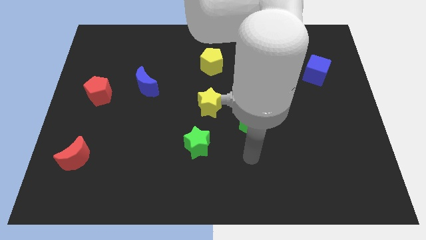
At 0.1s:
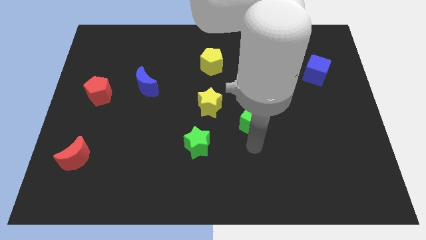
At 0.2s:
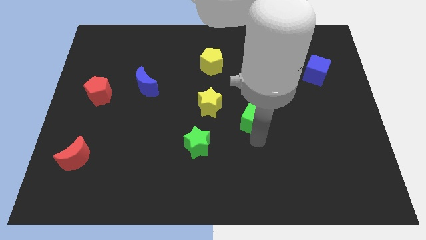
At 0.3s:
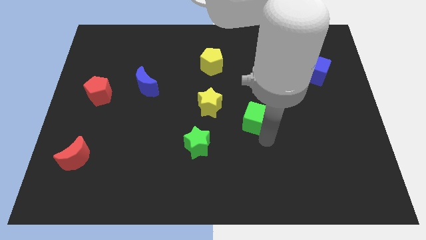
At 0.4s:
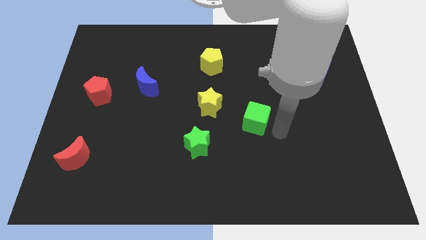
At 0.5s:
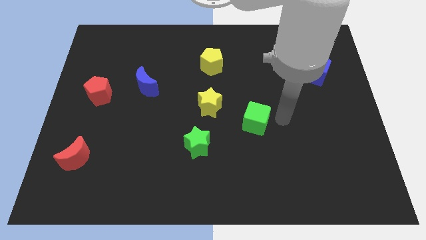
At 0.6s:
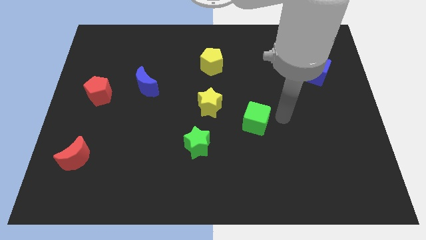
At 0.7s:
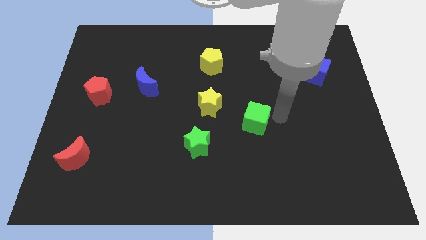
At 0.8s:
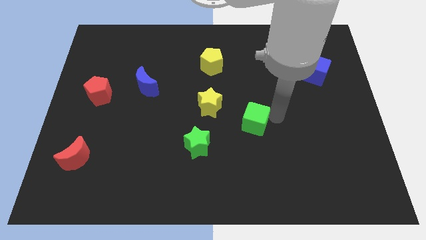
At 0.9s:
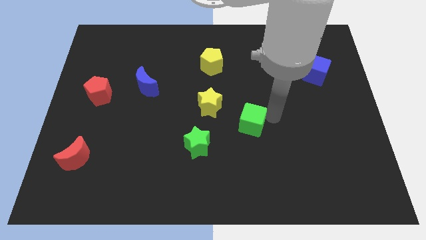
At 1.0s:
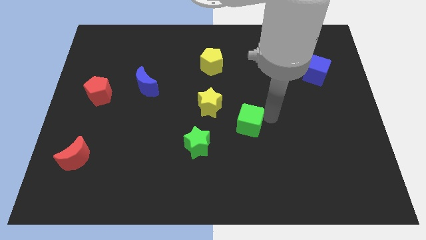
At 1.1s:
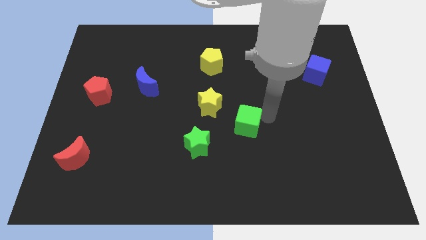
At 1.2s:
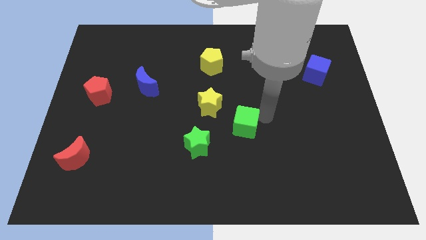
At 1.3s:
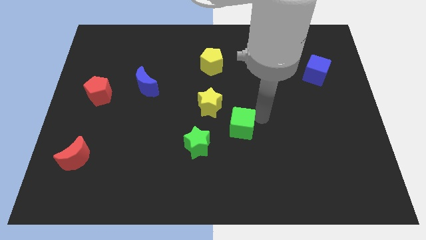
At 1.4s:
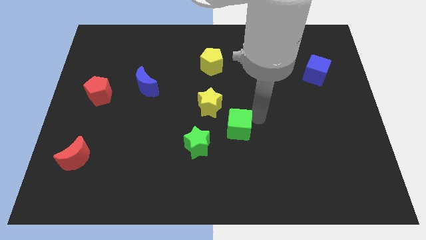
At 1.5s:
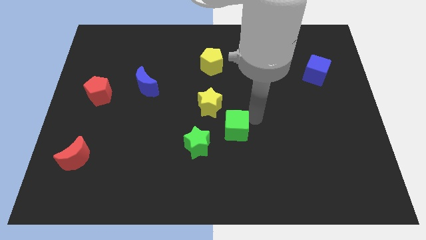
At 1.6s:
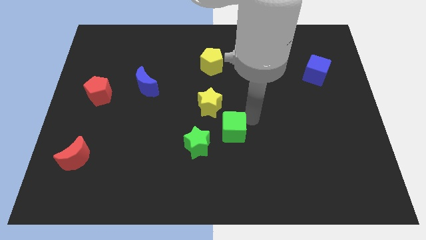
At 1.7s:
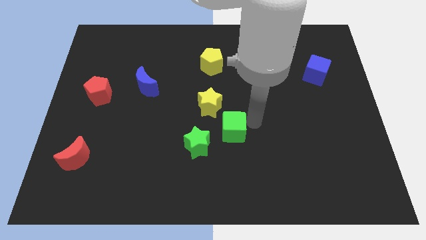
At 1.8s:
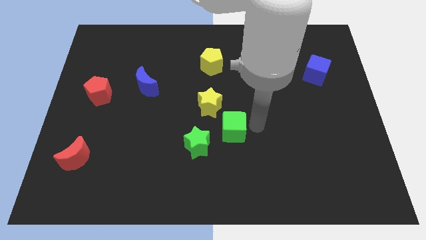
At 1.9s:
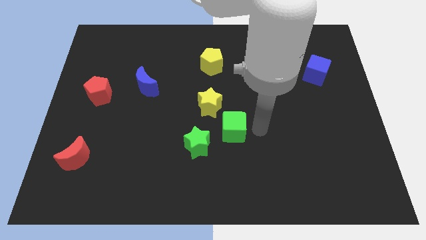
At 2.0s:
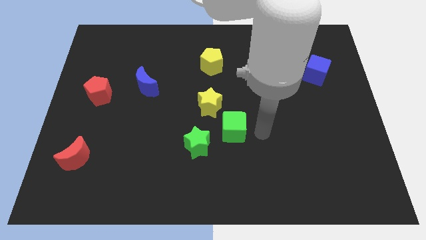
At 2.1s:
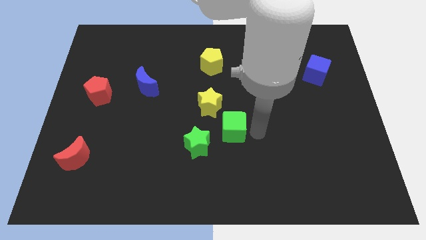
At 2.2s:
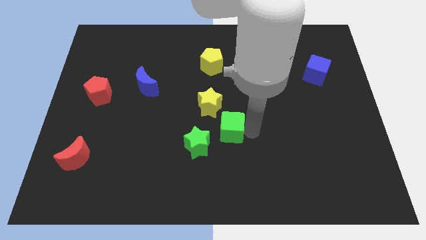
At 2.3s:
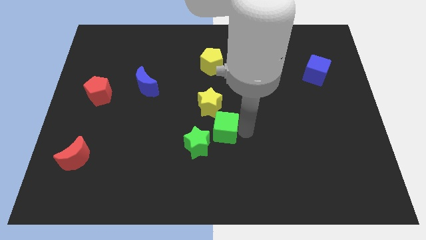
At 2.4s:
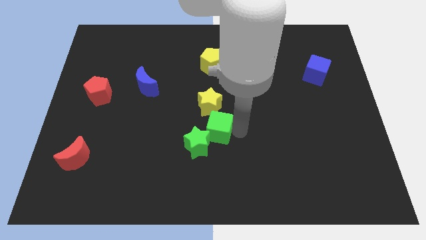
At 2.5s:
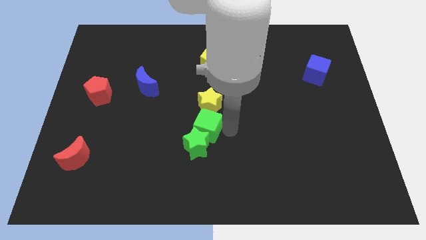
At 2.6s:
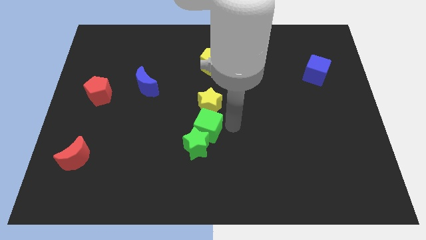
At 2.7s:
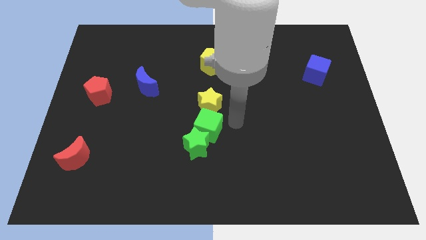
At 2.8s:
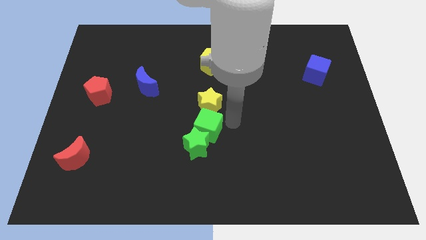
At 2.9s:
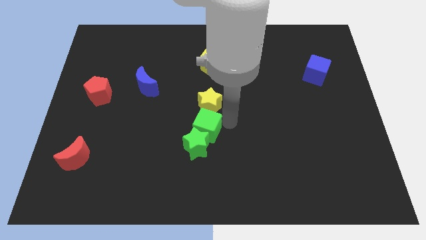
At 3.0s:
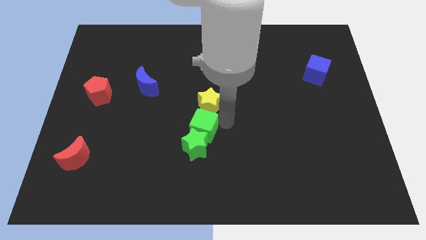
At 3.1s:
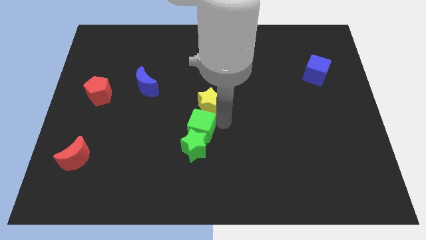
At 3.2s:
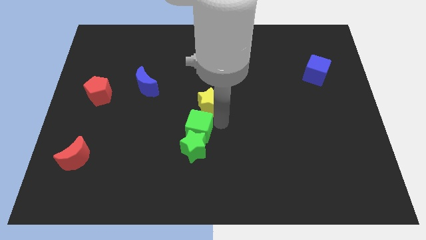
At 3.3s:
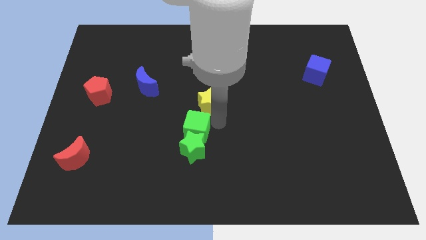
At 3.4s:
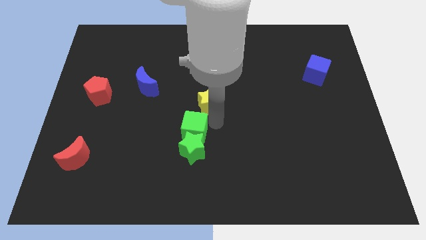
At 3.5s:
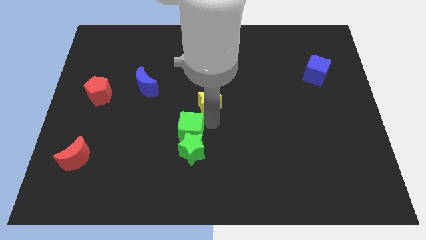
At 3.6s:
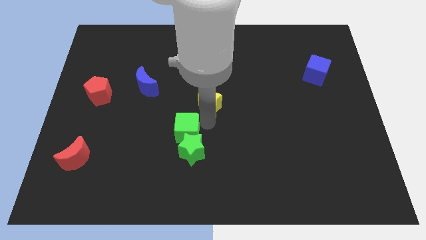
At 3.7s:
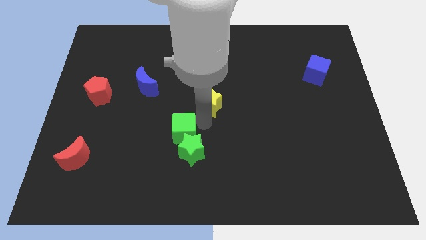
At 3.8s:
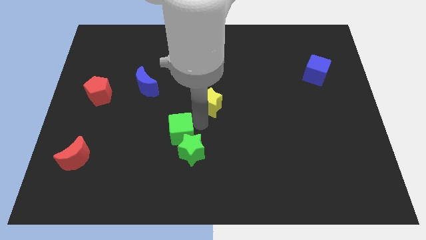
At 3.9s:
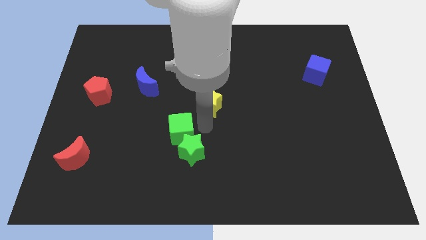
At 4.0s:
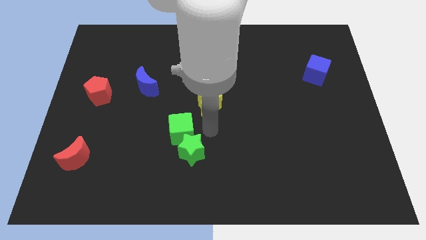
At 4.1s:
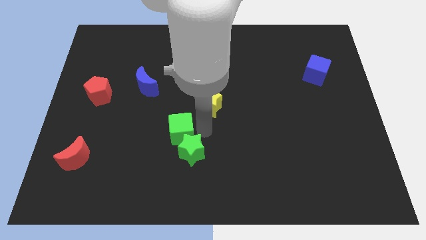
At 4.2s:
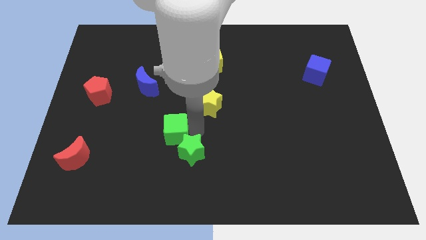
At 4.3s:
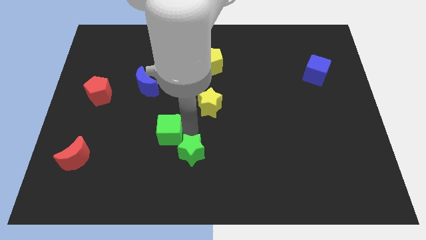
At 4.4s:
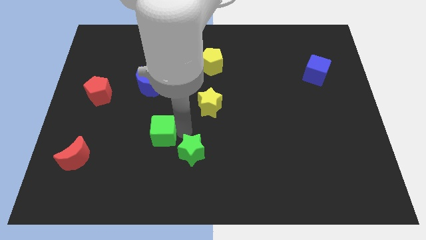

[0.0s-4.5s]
push the green cube to the left

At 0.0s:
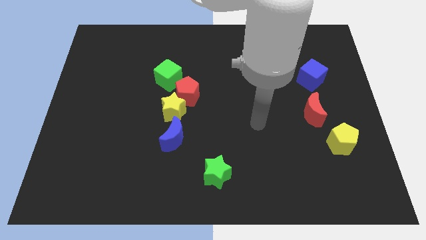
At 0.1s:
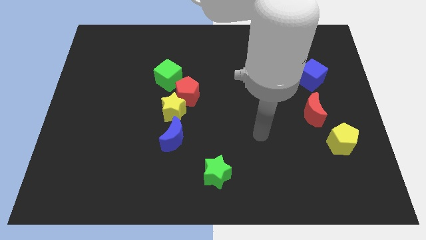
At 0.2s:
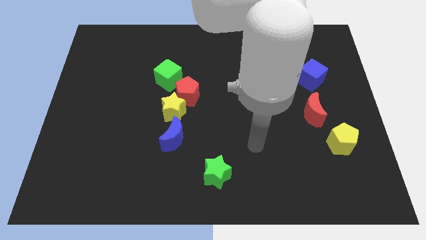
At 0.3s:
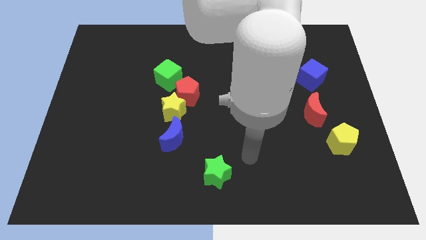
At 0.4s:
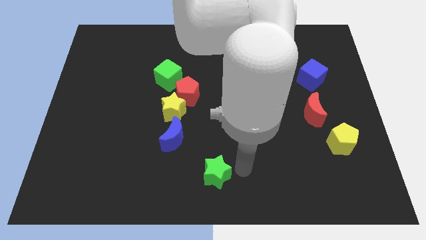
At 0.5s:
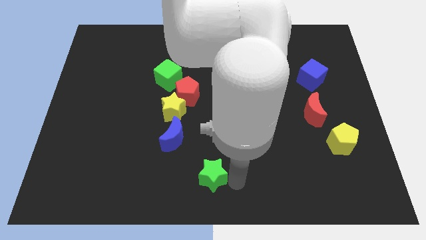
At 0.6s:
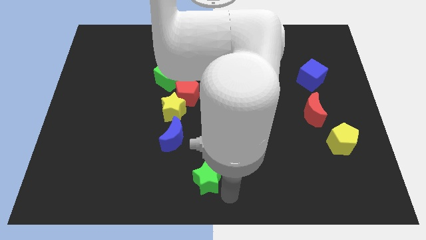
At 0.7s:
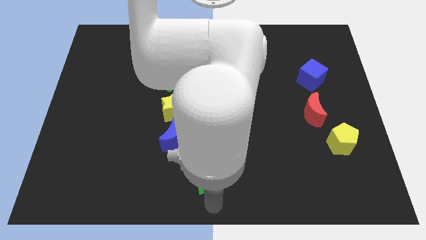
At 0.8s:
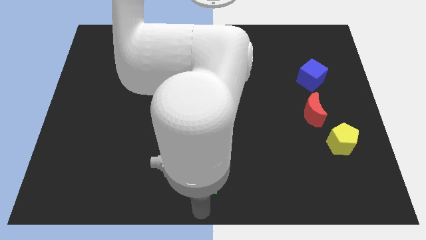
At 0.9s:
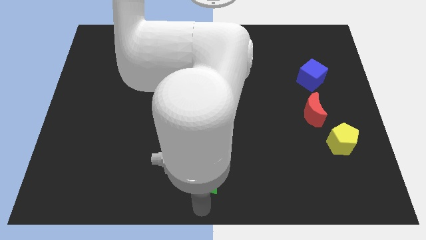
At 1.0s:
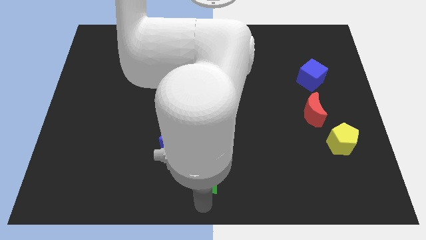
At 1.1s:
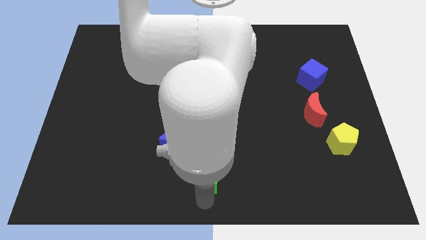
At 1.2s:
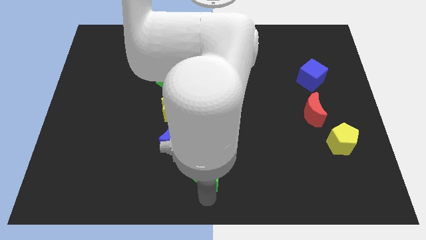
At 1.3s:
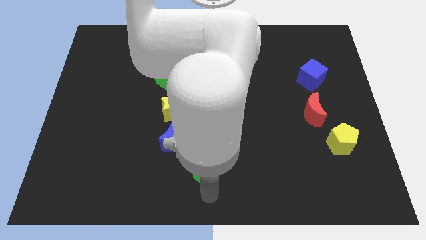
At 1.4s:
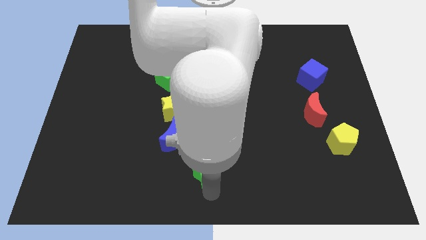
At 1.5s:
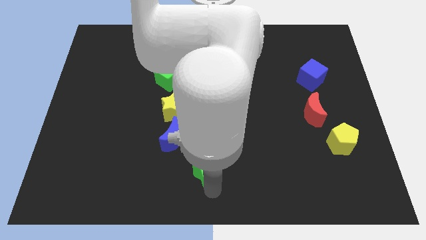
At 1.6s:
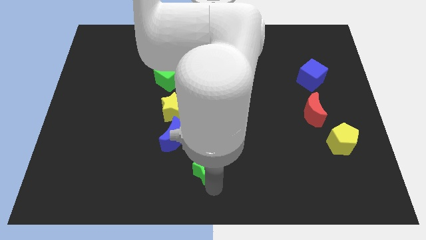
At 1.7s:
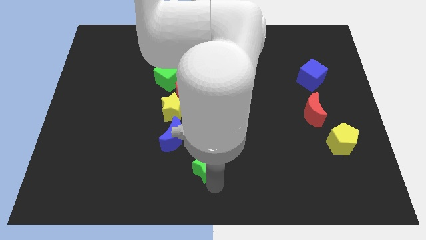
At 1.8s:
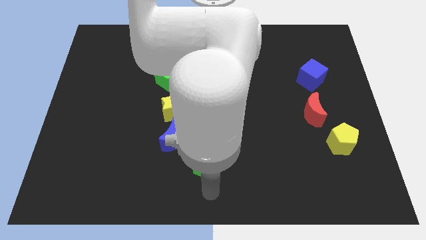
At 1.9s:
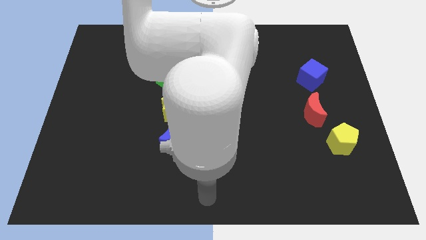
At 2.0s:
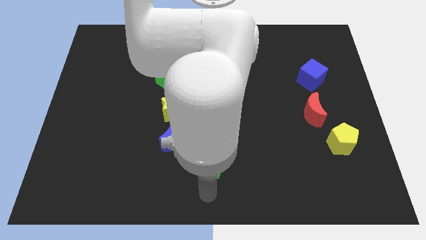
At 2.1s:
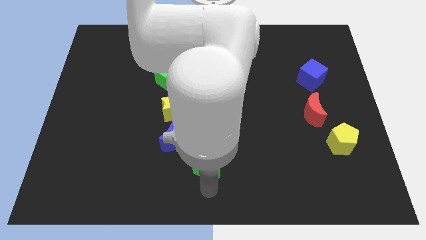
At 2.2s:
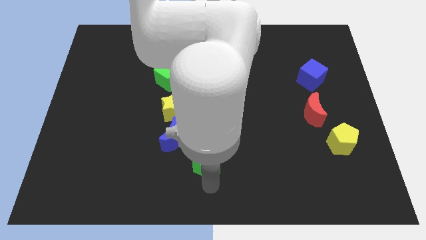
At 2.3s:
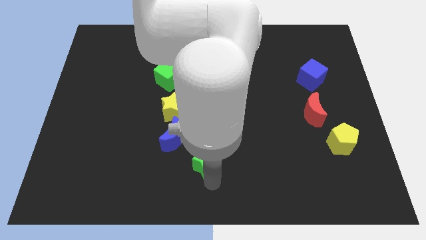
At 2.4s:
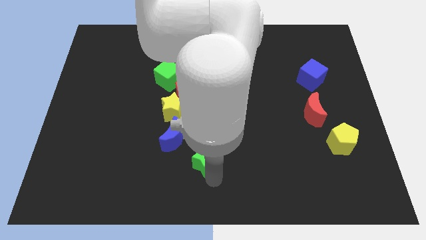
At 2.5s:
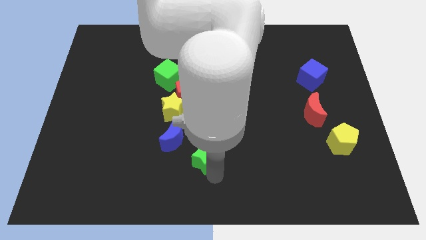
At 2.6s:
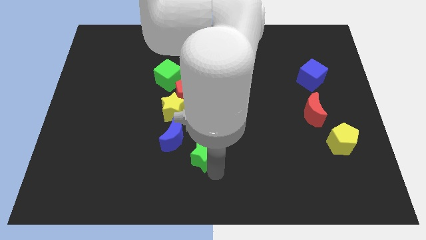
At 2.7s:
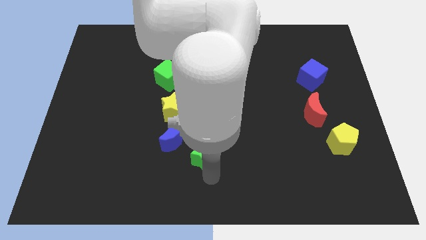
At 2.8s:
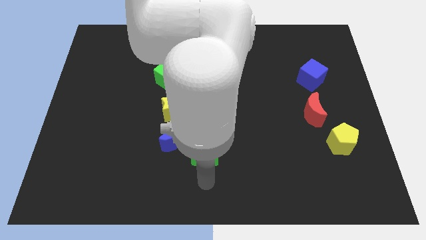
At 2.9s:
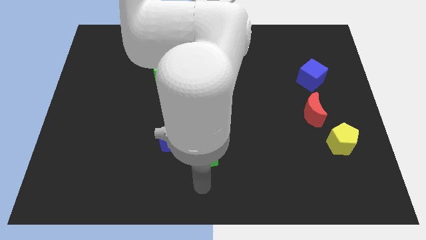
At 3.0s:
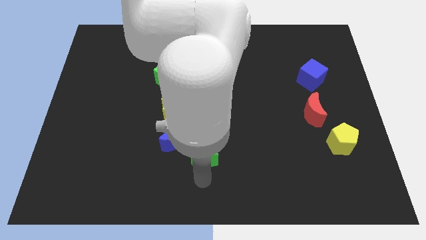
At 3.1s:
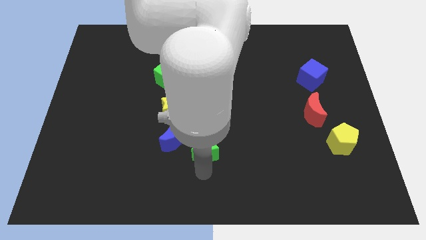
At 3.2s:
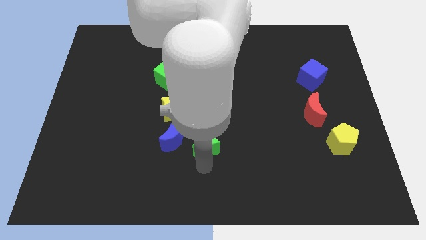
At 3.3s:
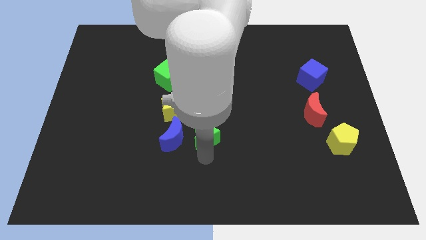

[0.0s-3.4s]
slide the green star upwards a little bit
